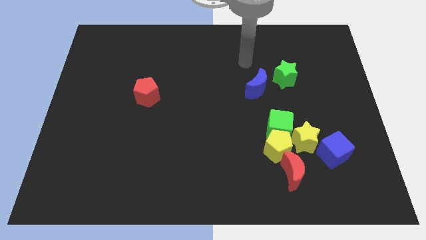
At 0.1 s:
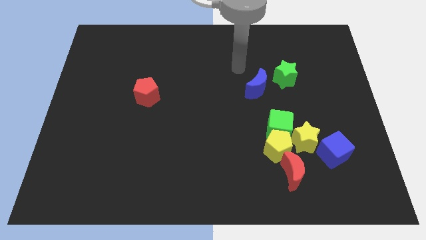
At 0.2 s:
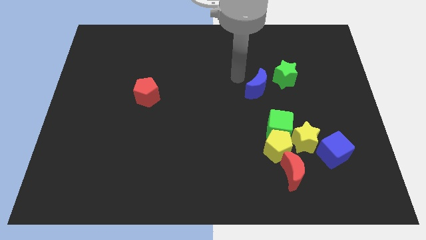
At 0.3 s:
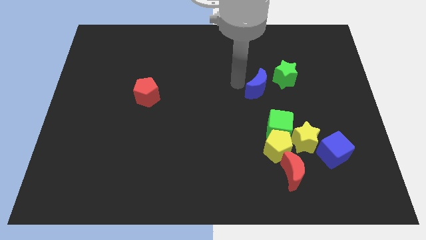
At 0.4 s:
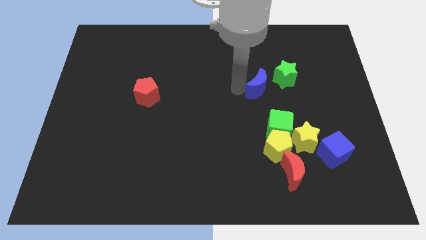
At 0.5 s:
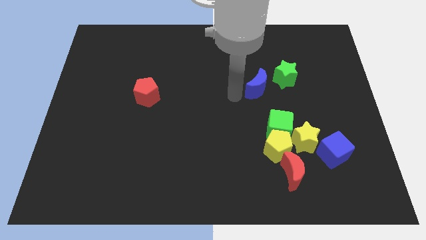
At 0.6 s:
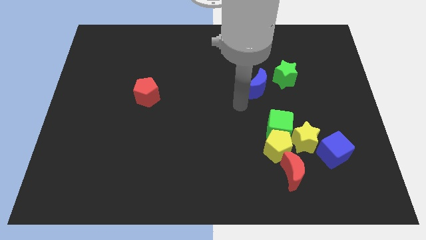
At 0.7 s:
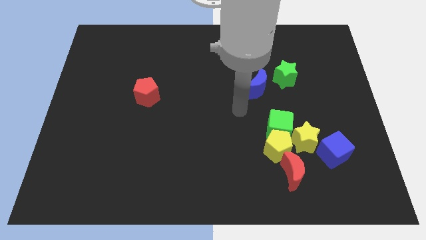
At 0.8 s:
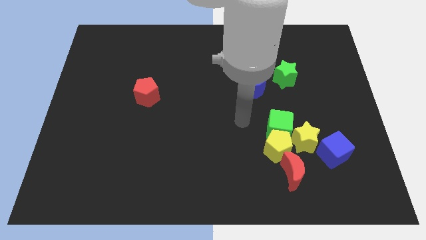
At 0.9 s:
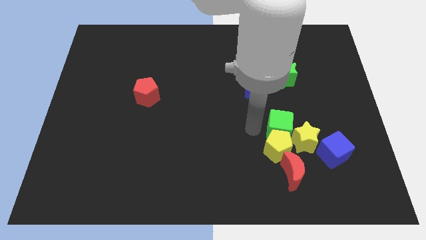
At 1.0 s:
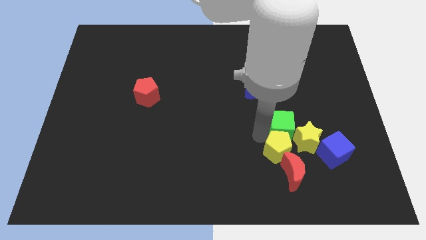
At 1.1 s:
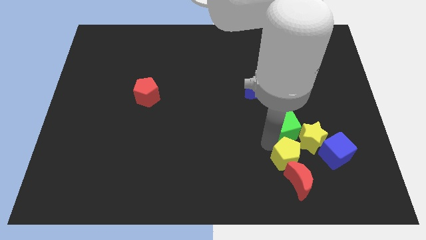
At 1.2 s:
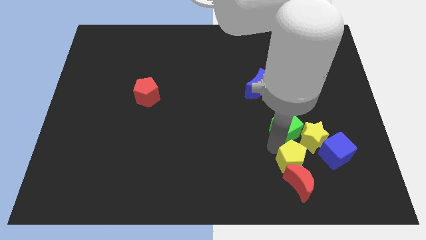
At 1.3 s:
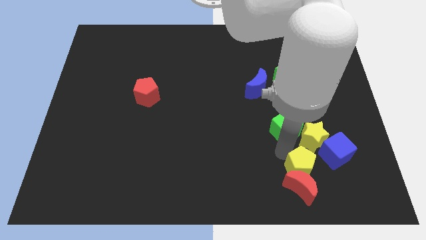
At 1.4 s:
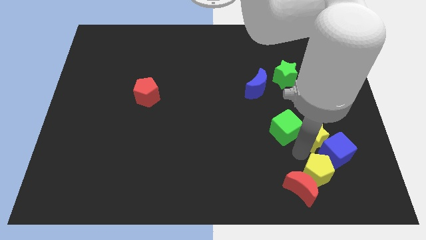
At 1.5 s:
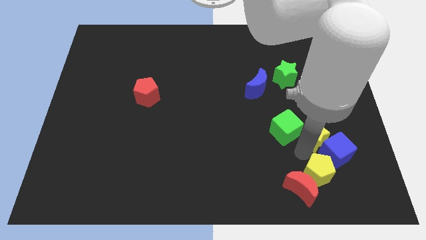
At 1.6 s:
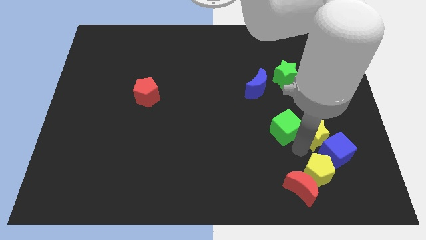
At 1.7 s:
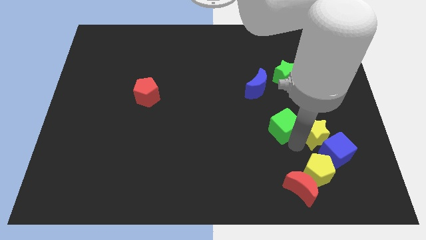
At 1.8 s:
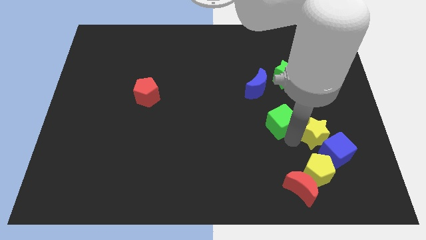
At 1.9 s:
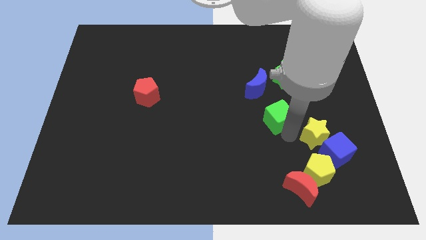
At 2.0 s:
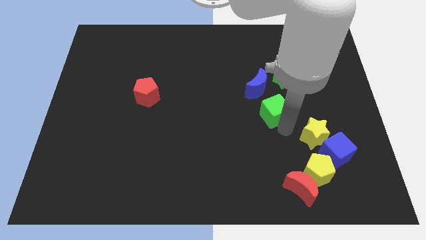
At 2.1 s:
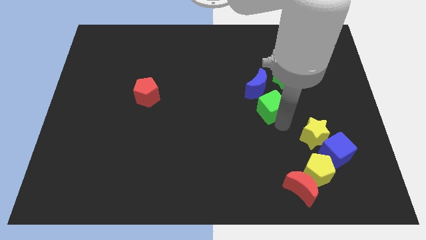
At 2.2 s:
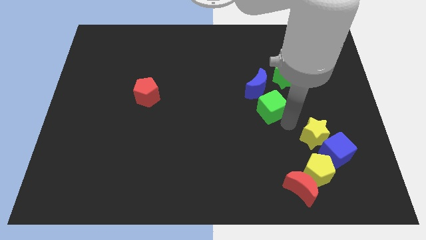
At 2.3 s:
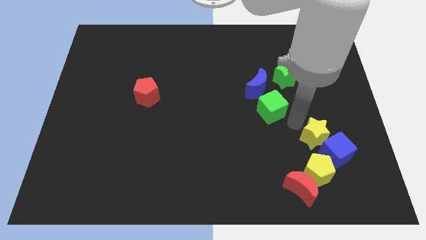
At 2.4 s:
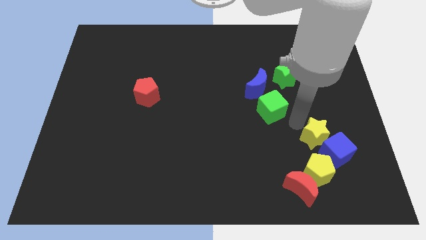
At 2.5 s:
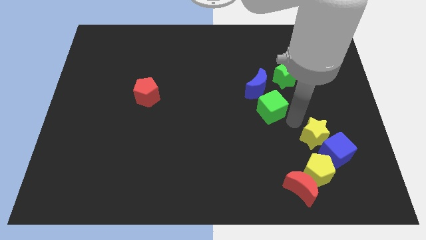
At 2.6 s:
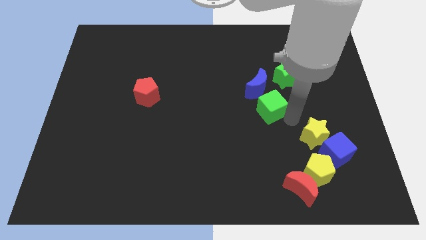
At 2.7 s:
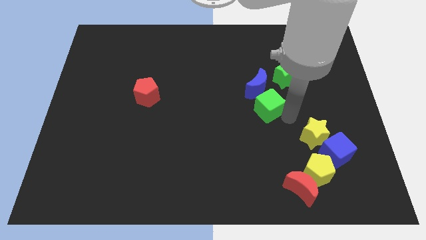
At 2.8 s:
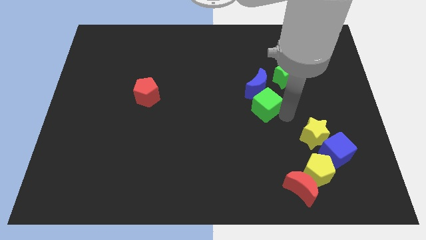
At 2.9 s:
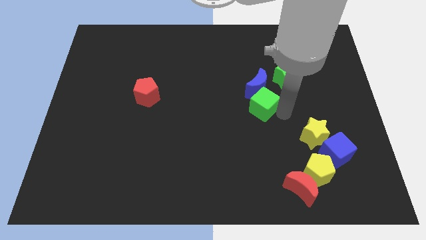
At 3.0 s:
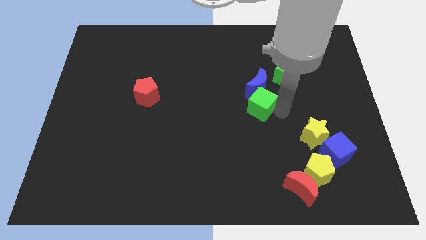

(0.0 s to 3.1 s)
push the green cube diagonally upwards and to the left a bit

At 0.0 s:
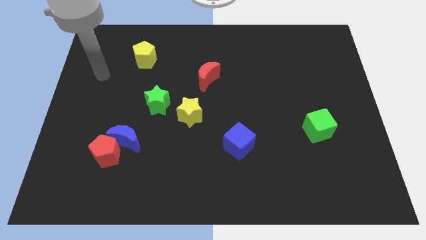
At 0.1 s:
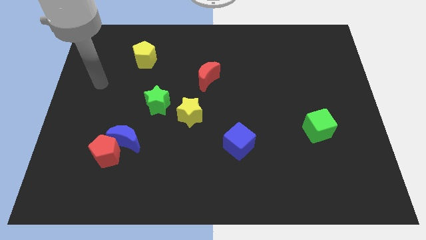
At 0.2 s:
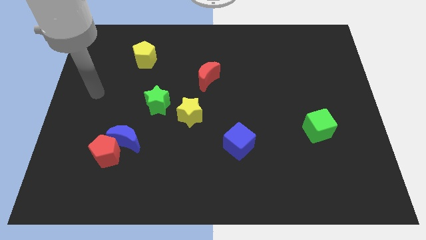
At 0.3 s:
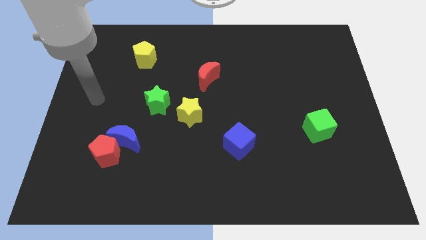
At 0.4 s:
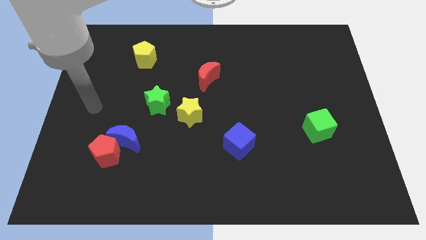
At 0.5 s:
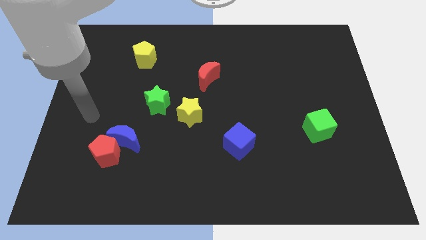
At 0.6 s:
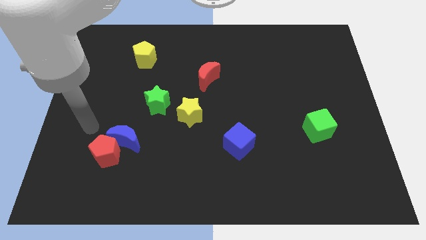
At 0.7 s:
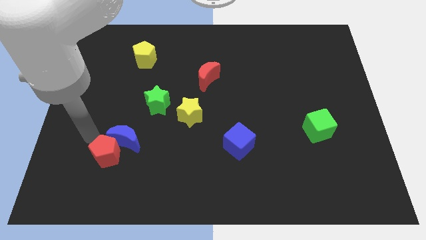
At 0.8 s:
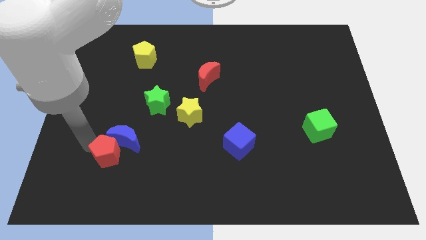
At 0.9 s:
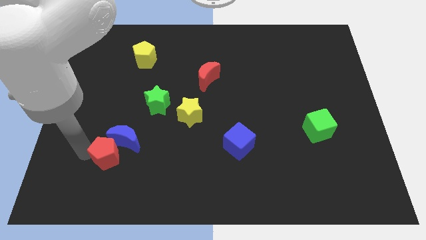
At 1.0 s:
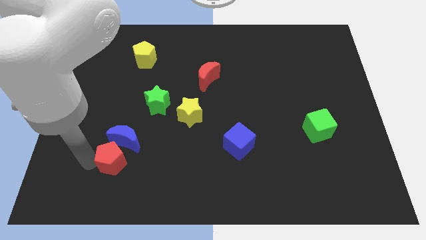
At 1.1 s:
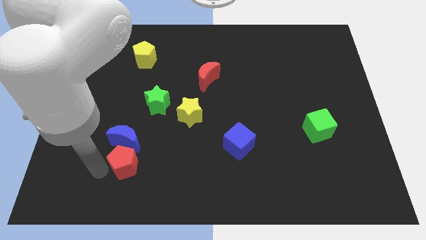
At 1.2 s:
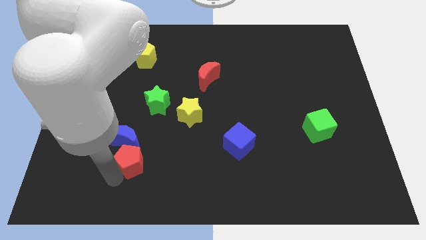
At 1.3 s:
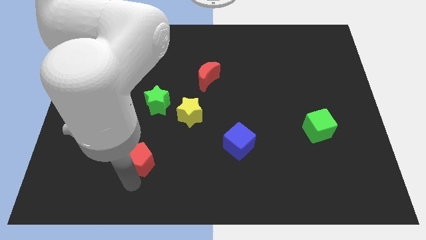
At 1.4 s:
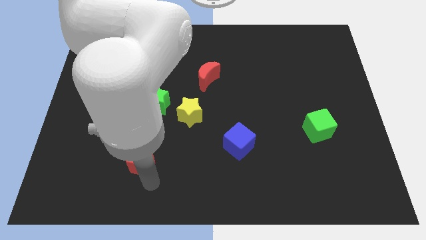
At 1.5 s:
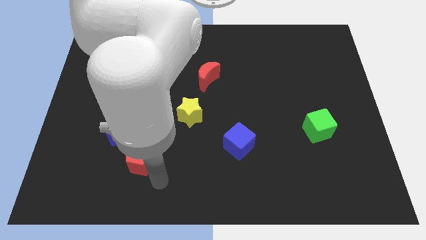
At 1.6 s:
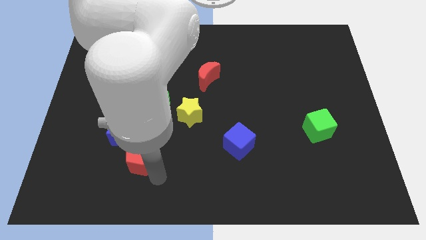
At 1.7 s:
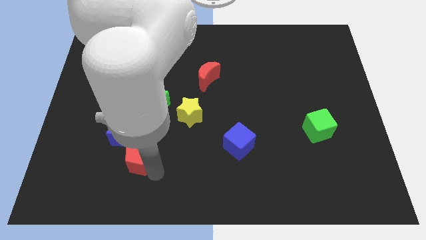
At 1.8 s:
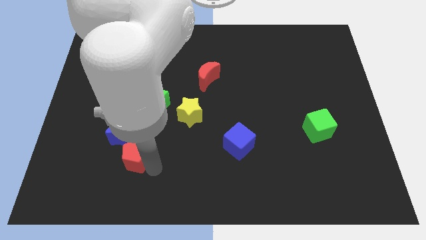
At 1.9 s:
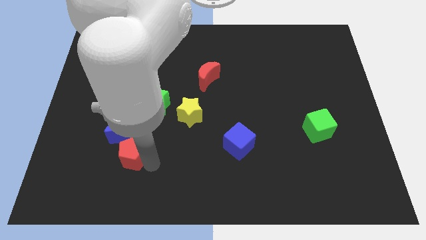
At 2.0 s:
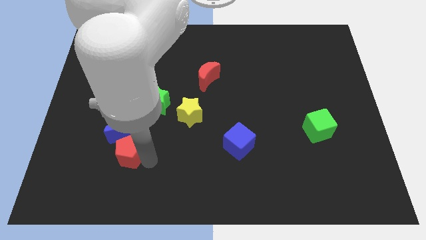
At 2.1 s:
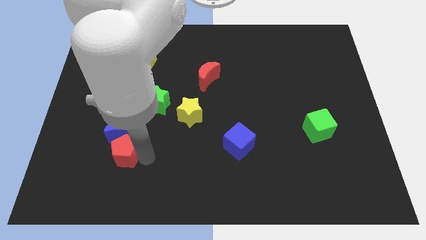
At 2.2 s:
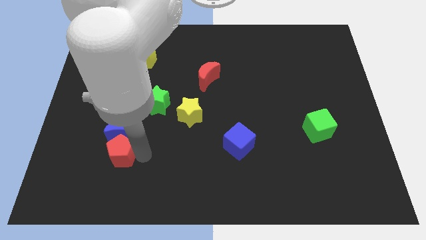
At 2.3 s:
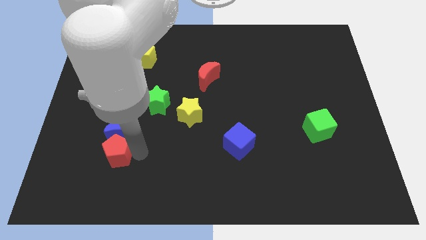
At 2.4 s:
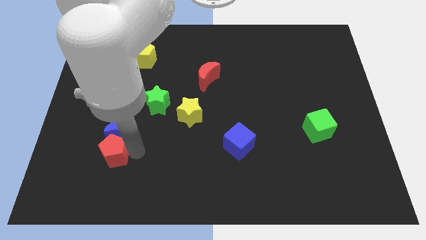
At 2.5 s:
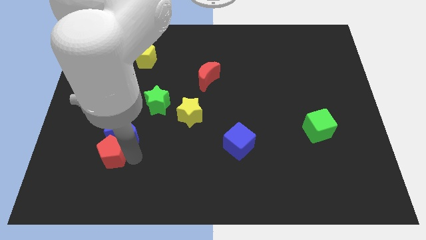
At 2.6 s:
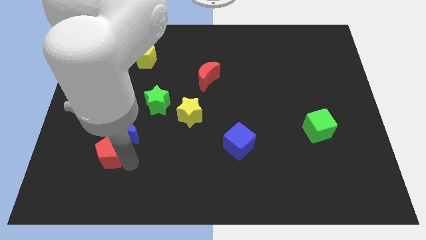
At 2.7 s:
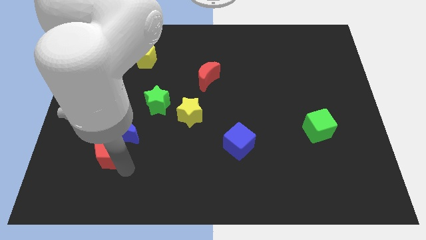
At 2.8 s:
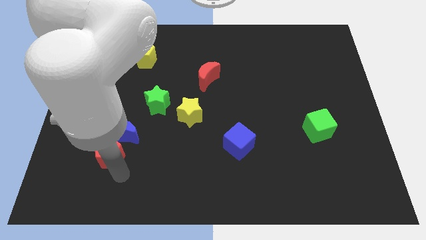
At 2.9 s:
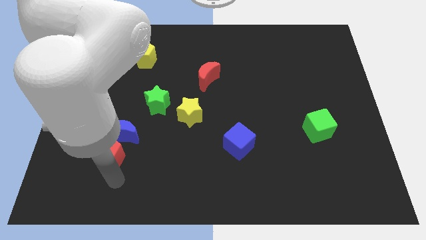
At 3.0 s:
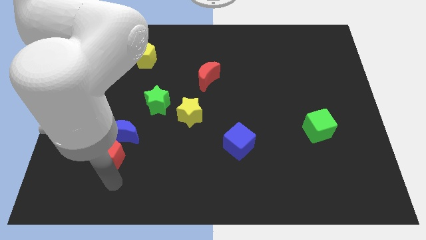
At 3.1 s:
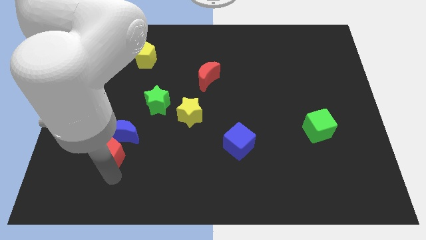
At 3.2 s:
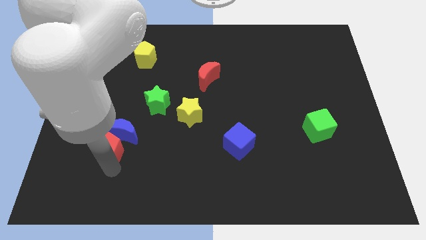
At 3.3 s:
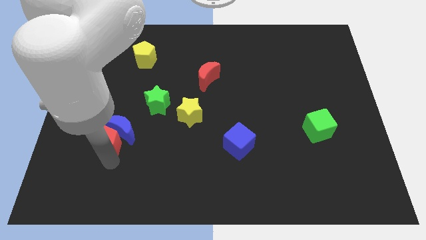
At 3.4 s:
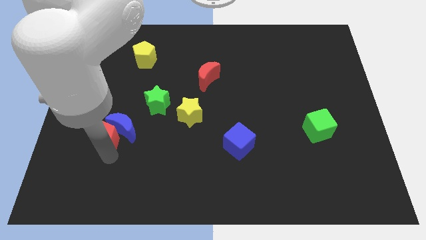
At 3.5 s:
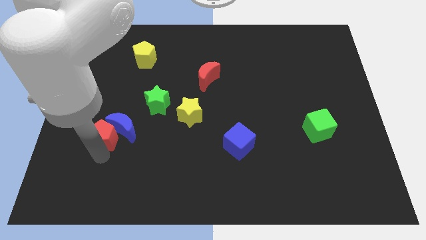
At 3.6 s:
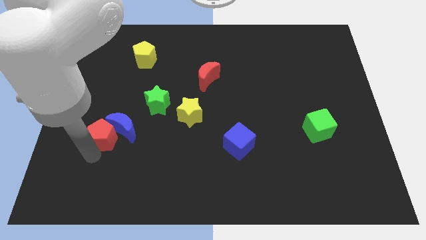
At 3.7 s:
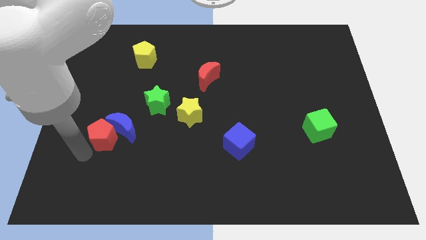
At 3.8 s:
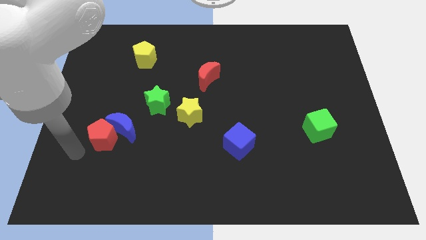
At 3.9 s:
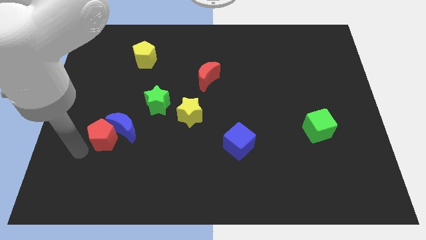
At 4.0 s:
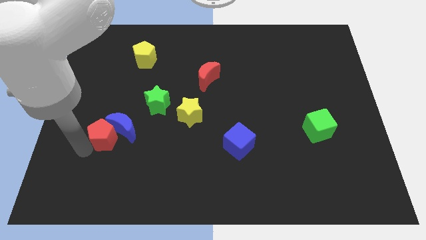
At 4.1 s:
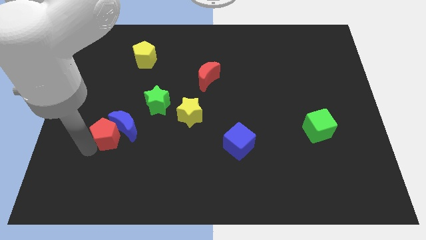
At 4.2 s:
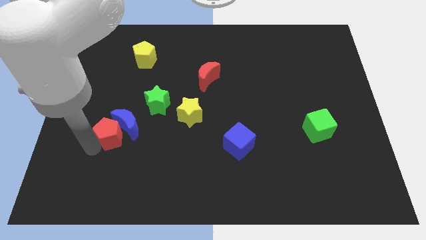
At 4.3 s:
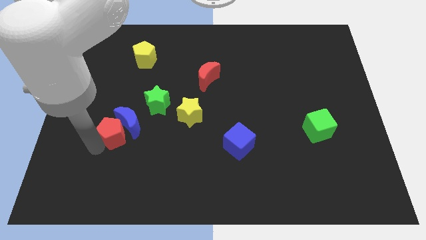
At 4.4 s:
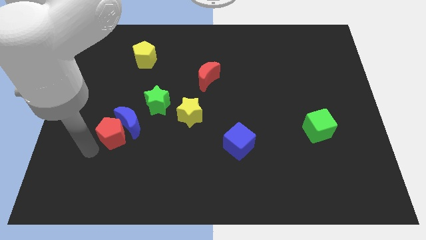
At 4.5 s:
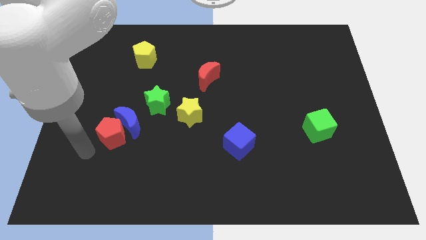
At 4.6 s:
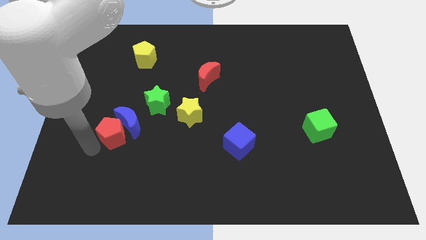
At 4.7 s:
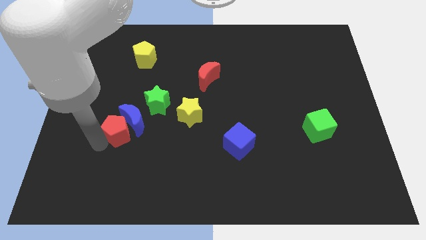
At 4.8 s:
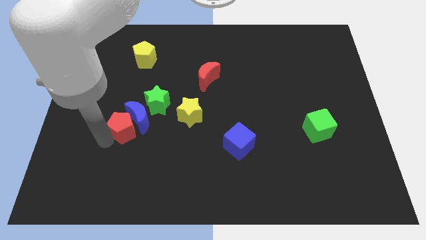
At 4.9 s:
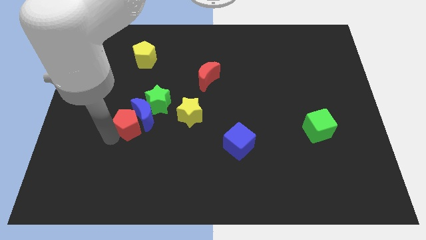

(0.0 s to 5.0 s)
move the red pentagon slightly diagonally up and right
